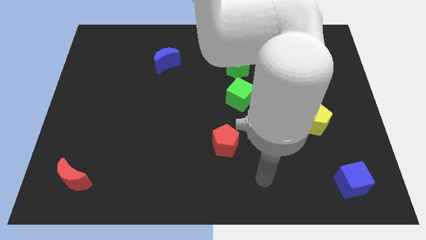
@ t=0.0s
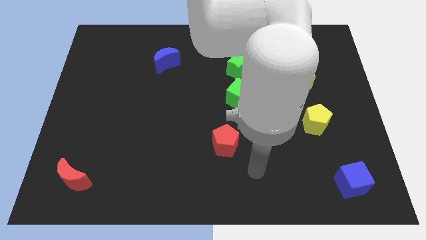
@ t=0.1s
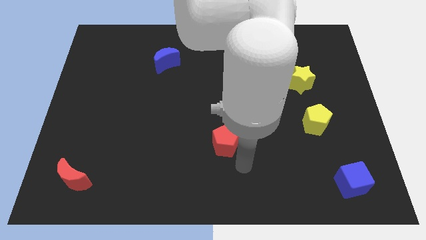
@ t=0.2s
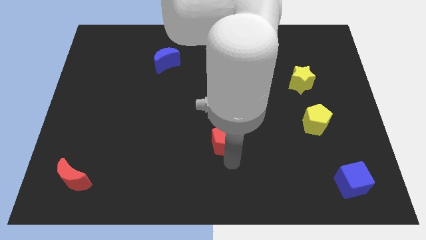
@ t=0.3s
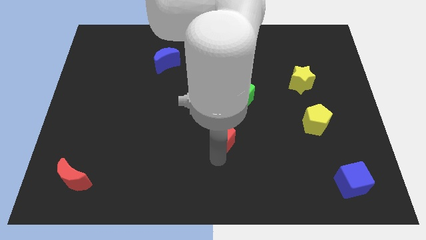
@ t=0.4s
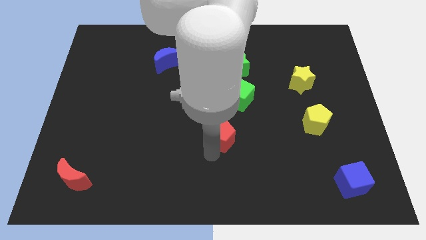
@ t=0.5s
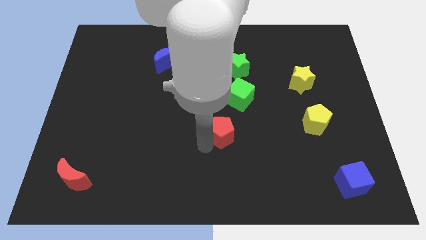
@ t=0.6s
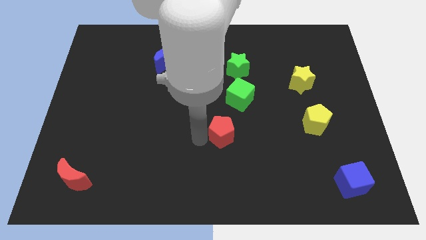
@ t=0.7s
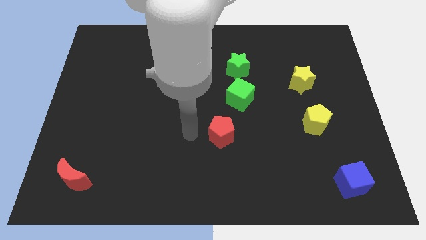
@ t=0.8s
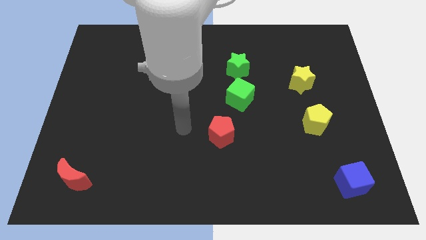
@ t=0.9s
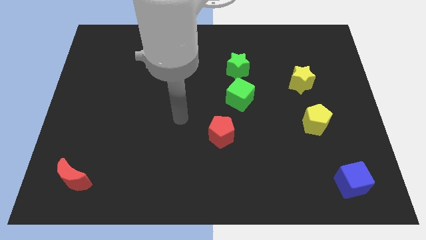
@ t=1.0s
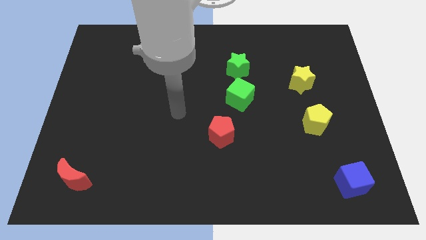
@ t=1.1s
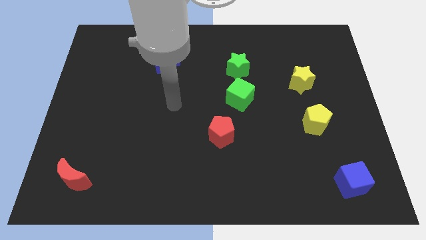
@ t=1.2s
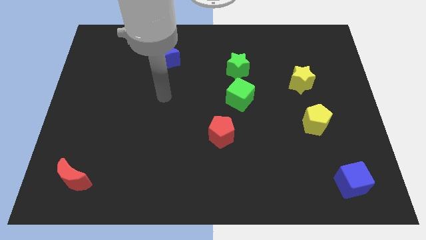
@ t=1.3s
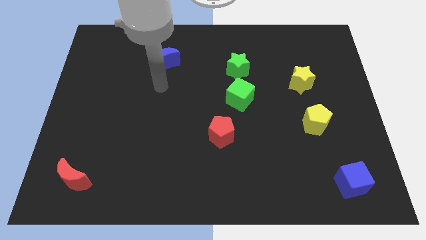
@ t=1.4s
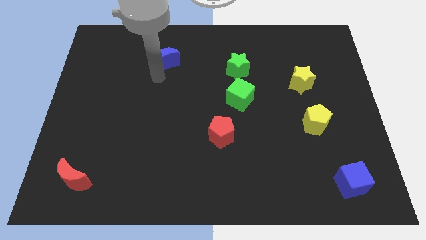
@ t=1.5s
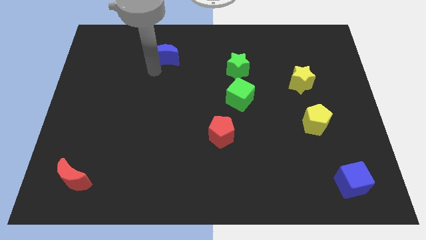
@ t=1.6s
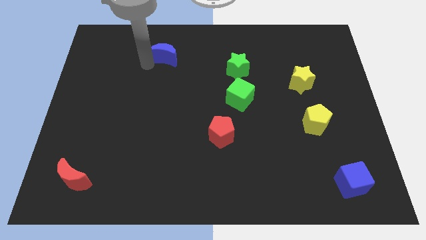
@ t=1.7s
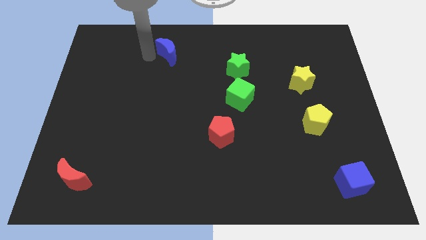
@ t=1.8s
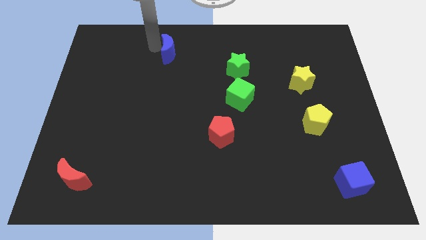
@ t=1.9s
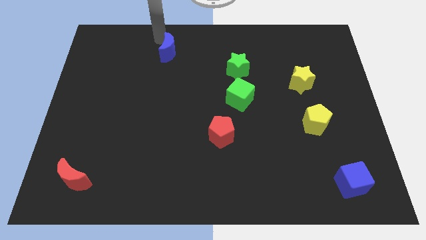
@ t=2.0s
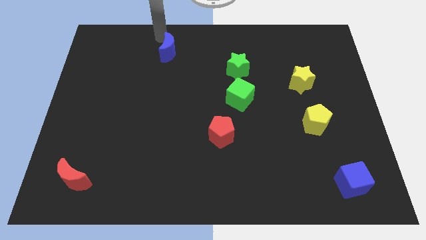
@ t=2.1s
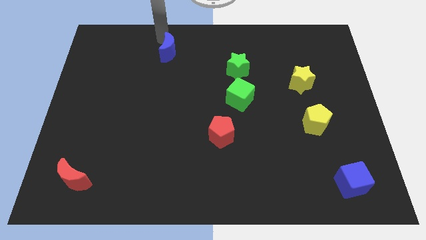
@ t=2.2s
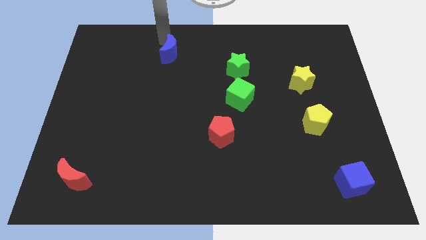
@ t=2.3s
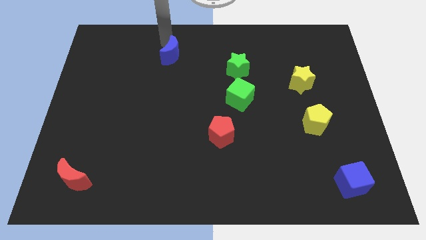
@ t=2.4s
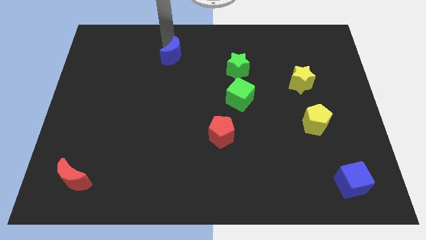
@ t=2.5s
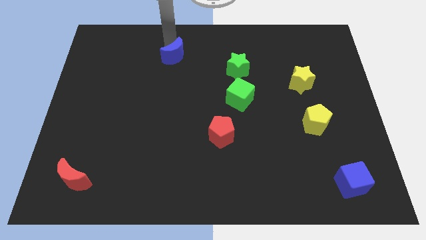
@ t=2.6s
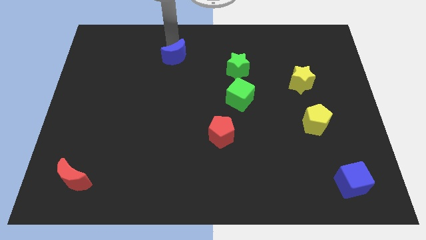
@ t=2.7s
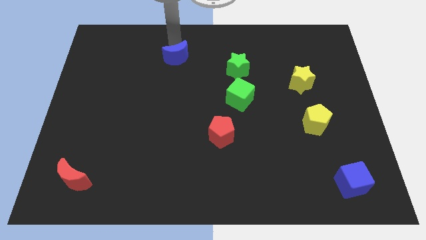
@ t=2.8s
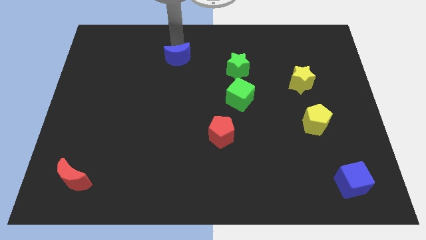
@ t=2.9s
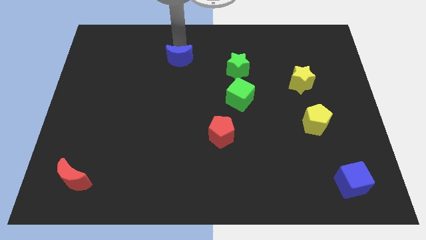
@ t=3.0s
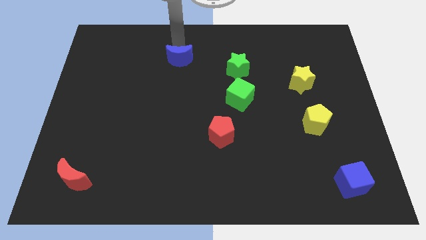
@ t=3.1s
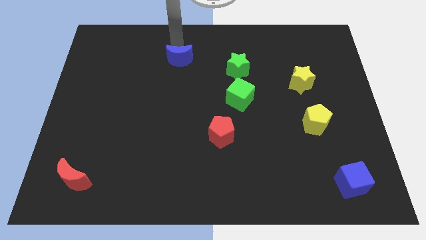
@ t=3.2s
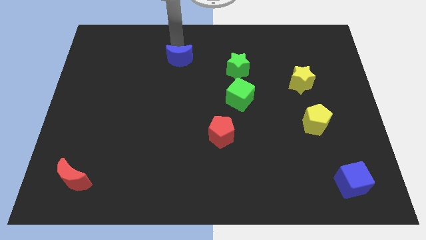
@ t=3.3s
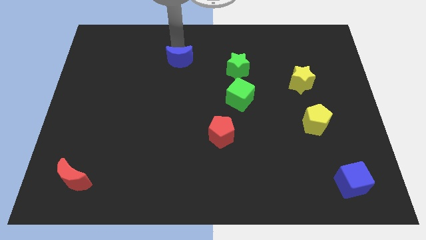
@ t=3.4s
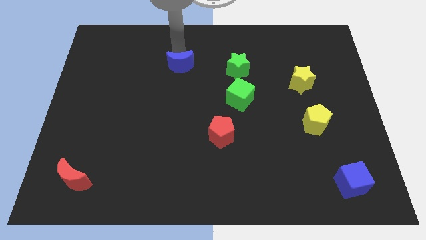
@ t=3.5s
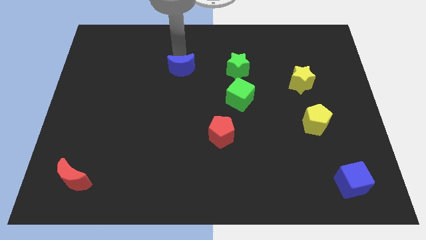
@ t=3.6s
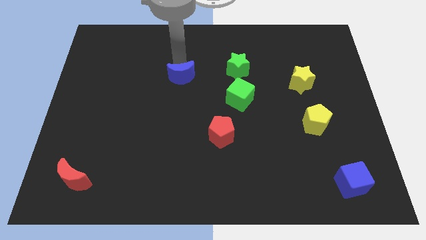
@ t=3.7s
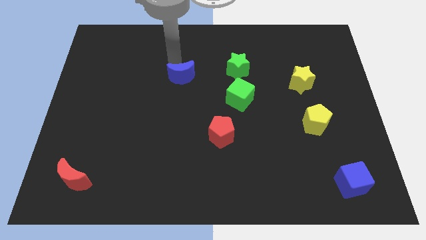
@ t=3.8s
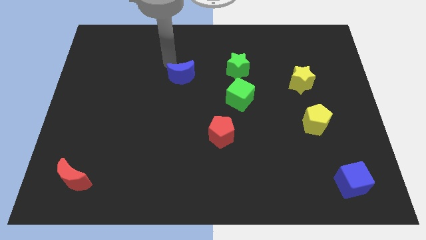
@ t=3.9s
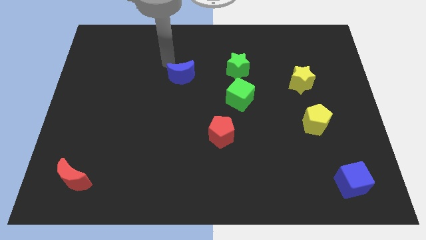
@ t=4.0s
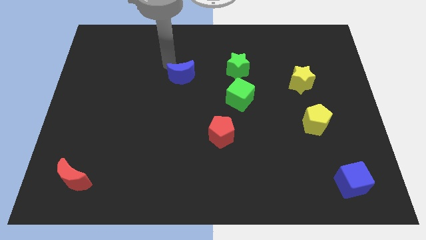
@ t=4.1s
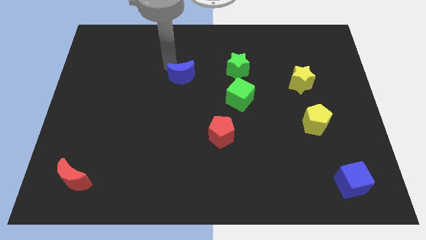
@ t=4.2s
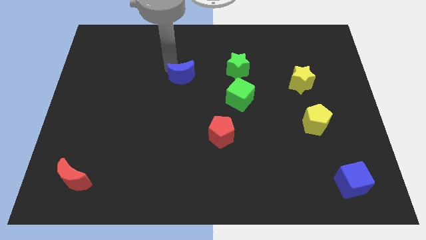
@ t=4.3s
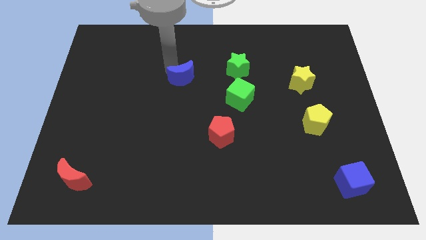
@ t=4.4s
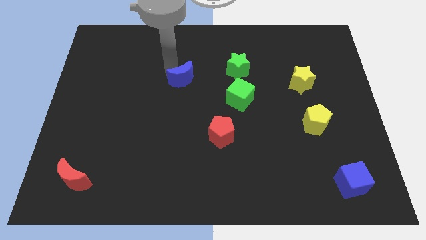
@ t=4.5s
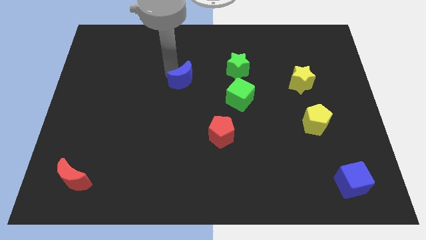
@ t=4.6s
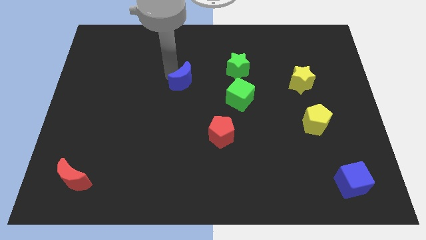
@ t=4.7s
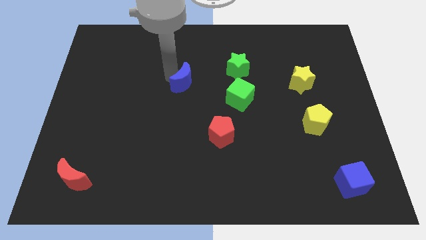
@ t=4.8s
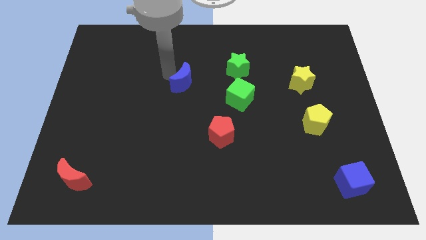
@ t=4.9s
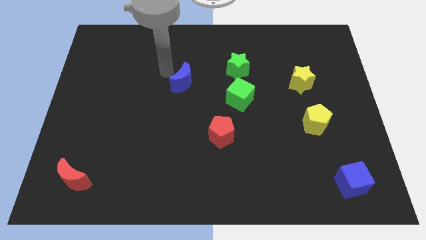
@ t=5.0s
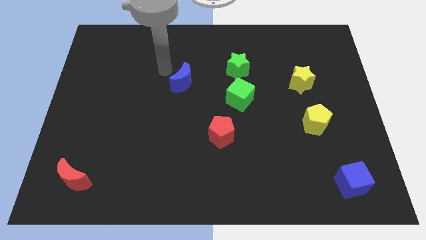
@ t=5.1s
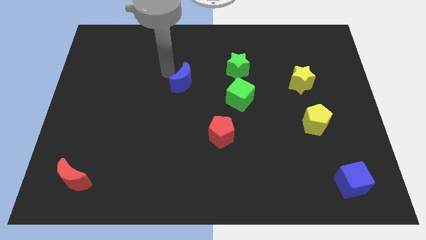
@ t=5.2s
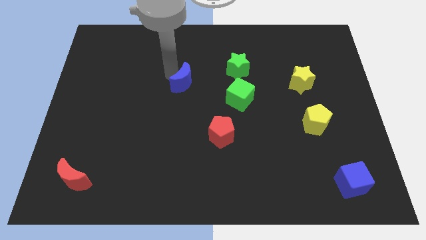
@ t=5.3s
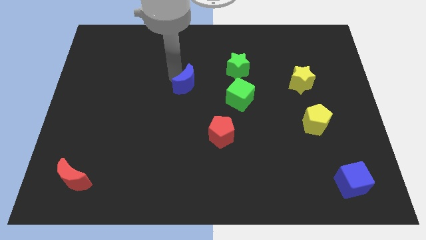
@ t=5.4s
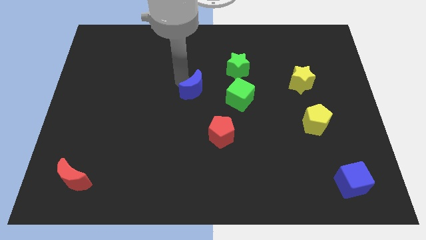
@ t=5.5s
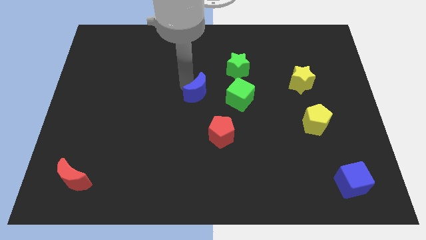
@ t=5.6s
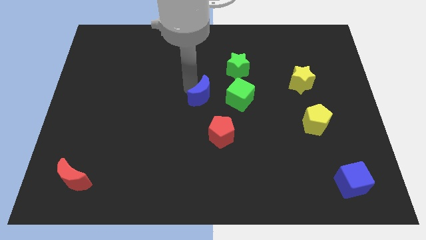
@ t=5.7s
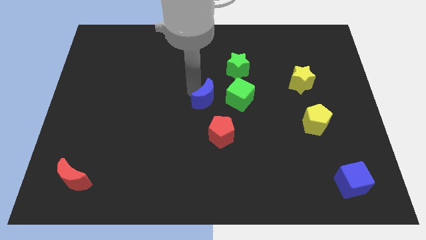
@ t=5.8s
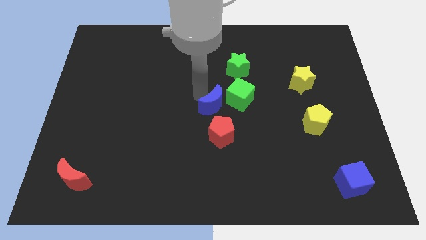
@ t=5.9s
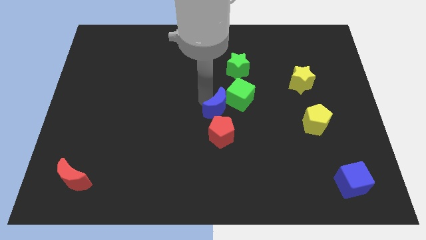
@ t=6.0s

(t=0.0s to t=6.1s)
slide the blue moon downwards and to the right

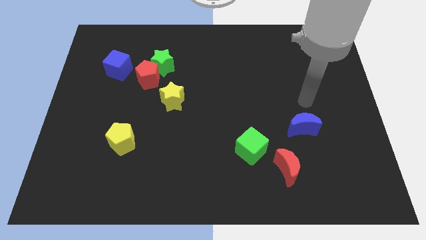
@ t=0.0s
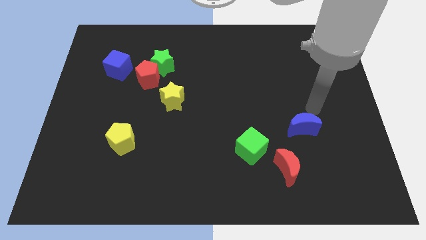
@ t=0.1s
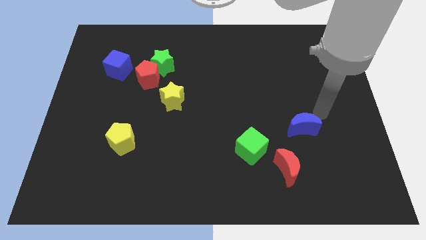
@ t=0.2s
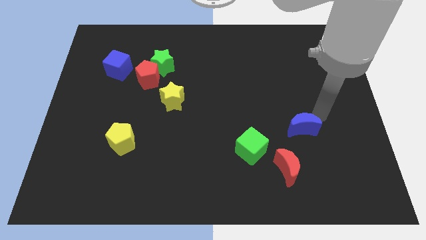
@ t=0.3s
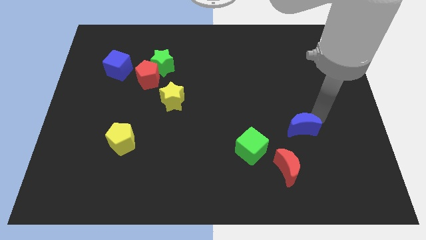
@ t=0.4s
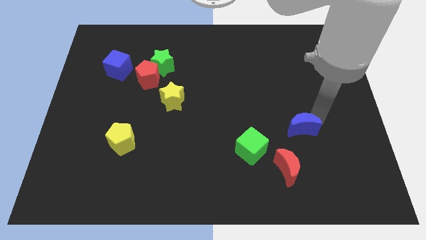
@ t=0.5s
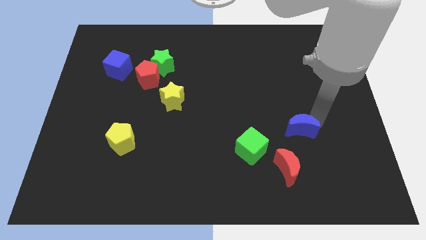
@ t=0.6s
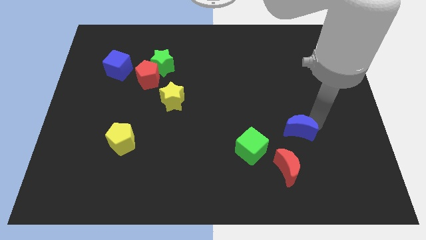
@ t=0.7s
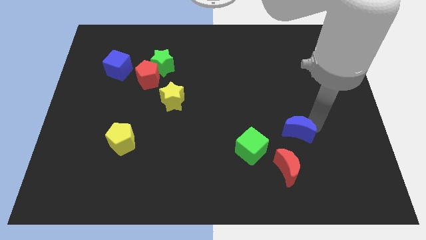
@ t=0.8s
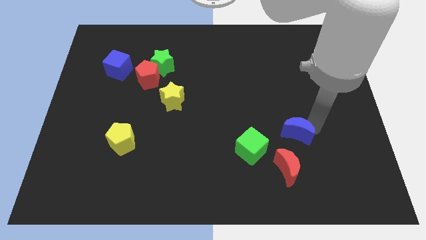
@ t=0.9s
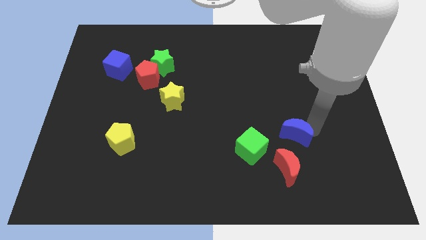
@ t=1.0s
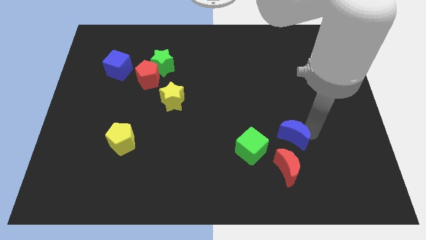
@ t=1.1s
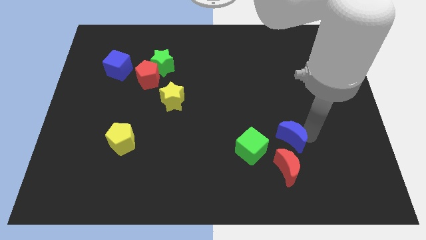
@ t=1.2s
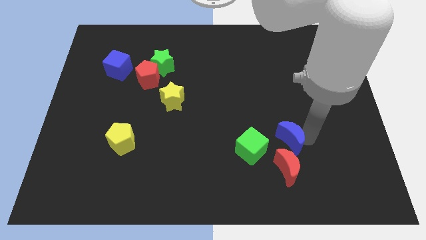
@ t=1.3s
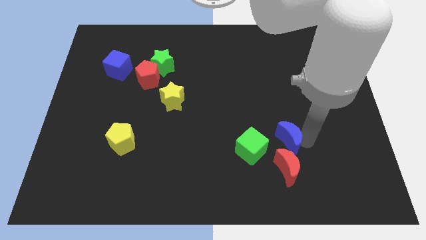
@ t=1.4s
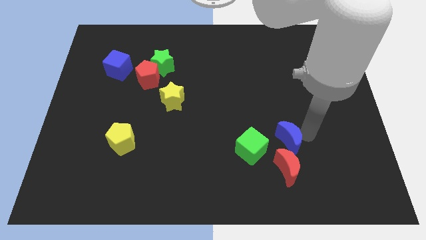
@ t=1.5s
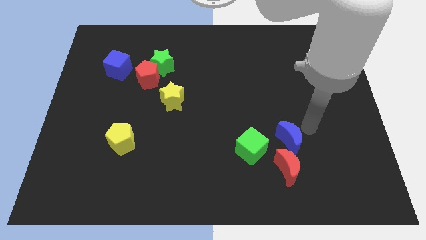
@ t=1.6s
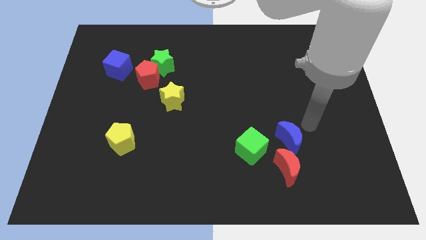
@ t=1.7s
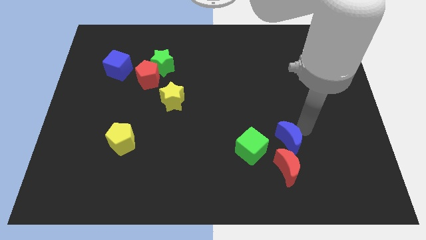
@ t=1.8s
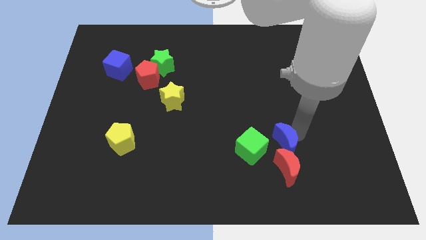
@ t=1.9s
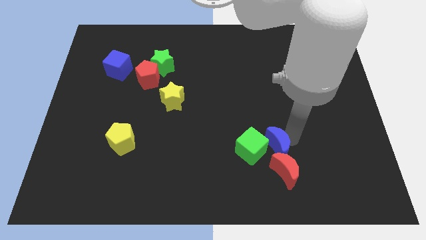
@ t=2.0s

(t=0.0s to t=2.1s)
push the blue moon a little down and left diagonally
